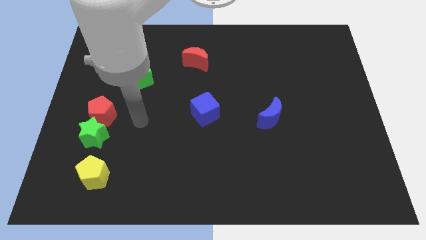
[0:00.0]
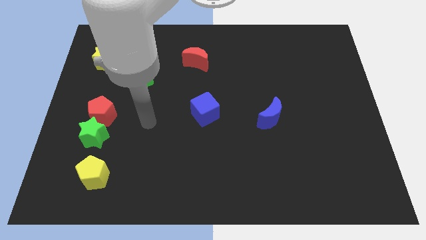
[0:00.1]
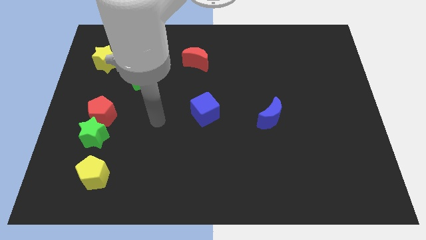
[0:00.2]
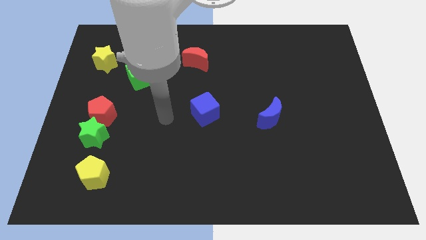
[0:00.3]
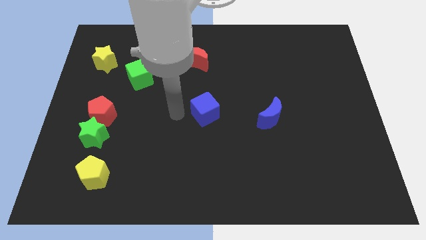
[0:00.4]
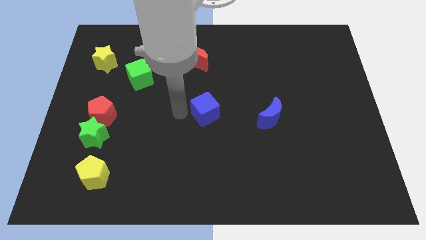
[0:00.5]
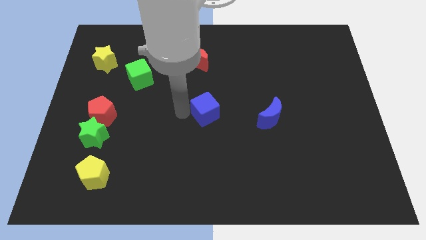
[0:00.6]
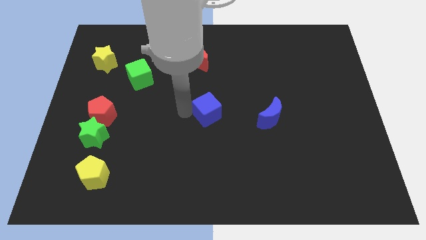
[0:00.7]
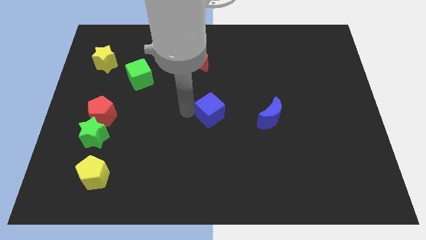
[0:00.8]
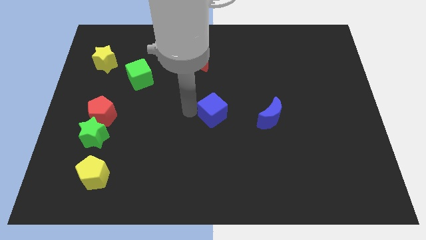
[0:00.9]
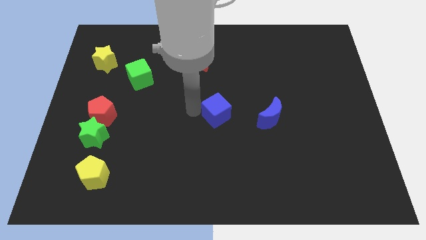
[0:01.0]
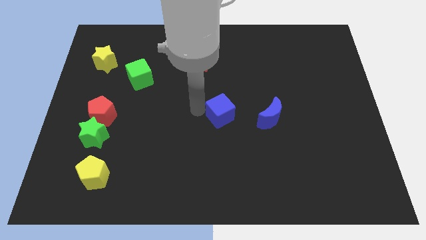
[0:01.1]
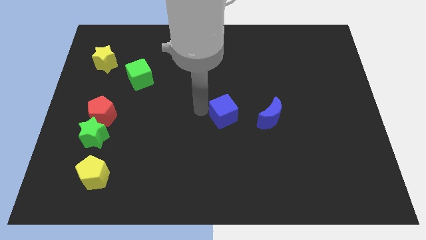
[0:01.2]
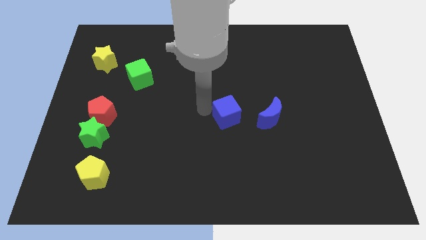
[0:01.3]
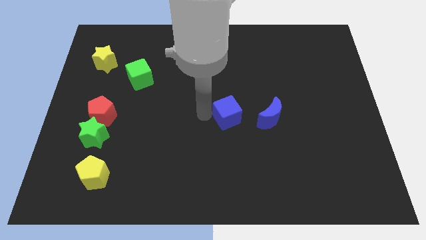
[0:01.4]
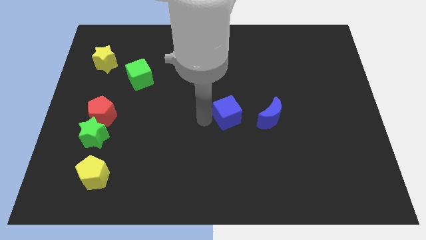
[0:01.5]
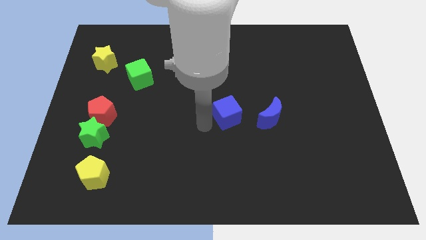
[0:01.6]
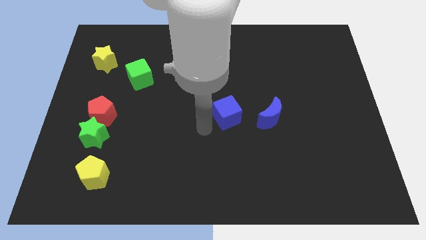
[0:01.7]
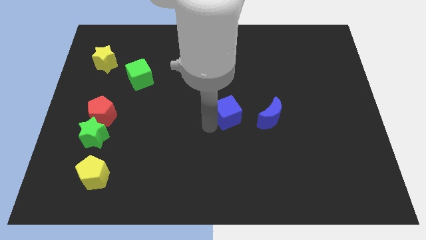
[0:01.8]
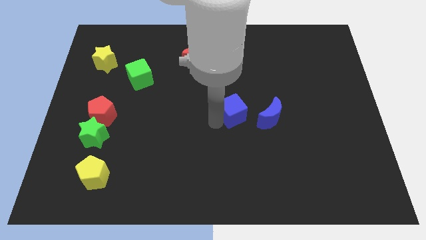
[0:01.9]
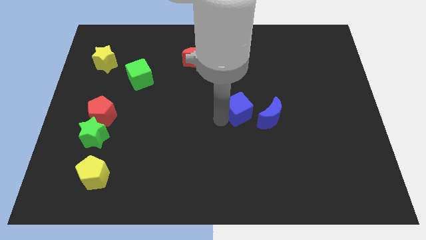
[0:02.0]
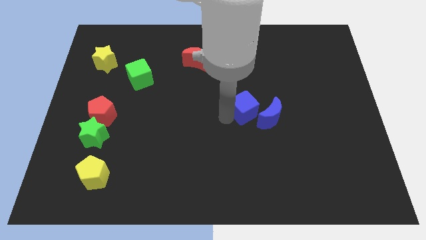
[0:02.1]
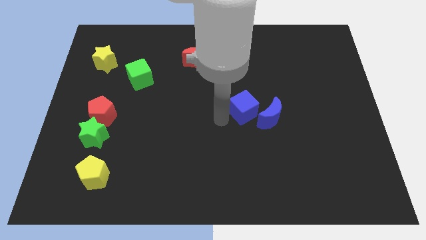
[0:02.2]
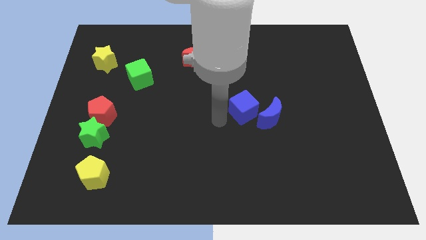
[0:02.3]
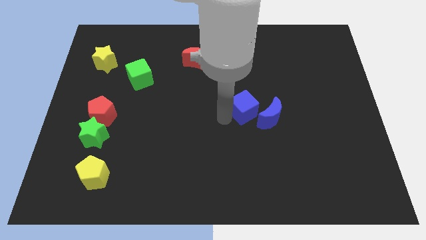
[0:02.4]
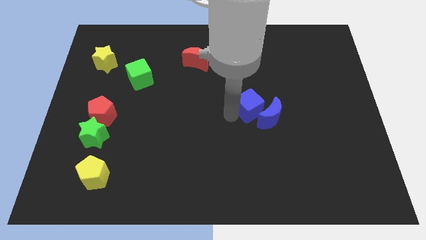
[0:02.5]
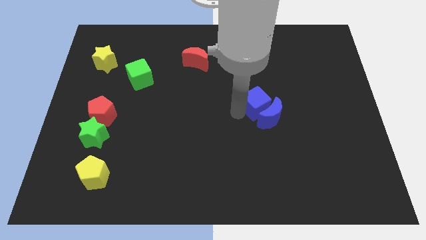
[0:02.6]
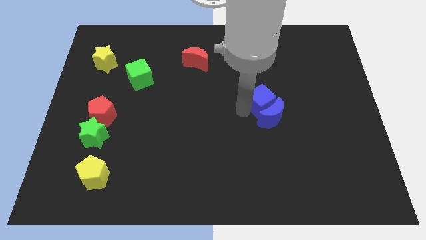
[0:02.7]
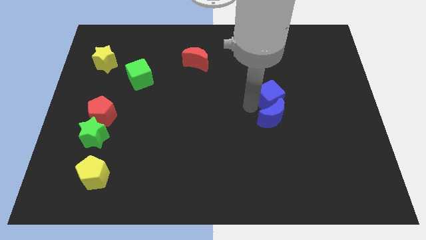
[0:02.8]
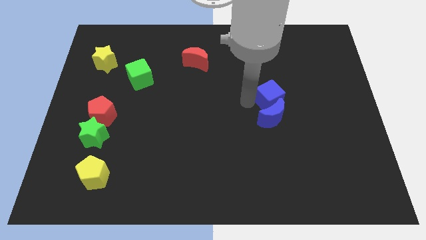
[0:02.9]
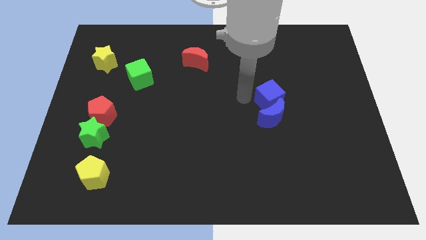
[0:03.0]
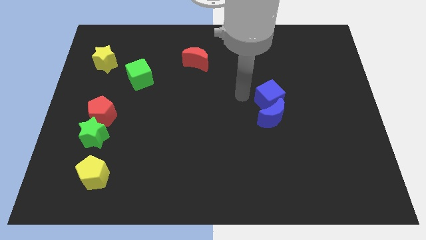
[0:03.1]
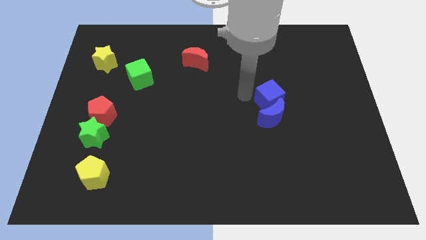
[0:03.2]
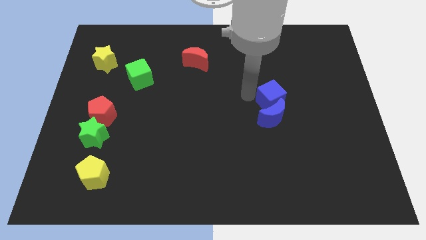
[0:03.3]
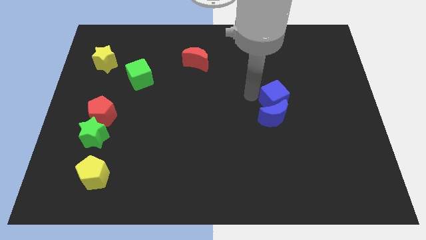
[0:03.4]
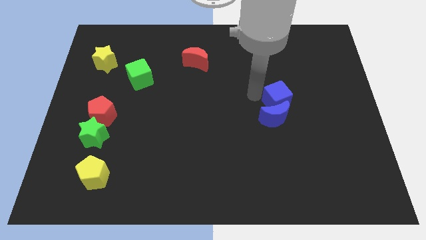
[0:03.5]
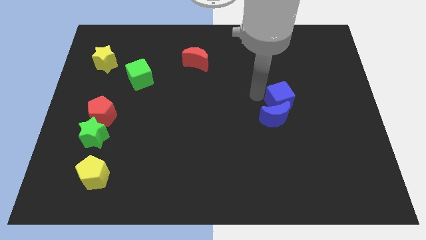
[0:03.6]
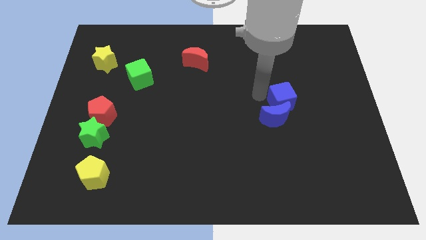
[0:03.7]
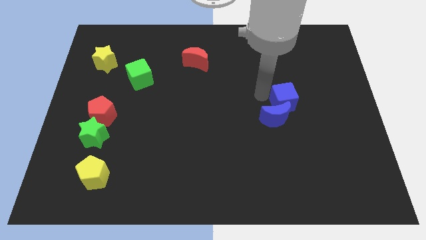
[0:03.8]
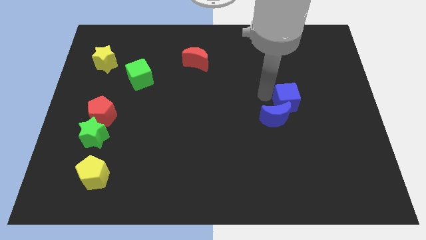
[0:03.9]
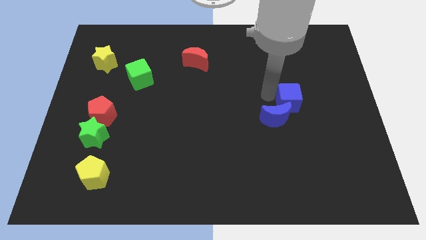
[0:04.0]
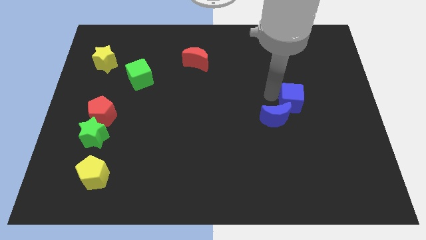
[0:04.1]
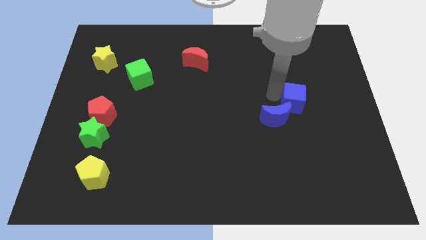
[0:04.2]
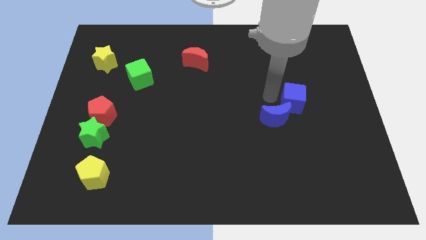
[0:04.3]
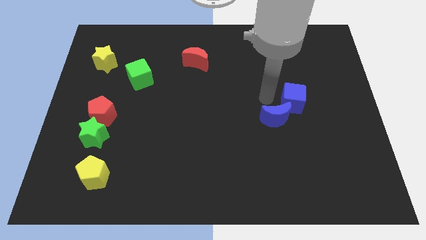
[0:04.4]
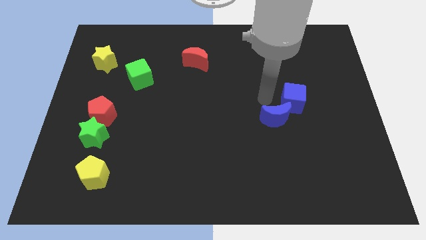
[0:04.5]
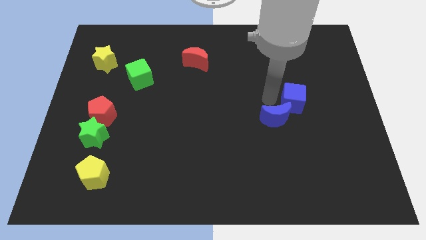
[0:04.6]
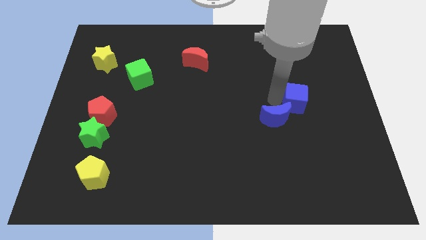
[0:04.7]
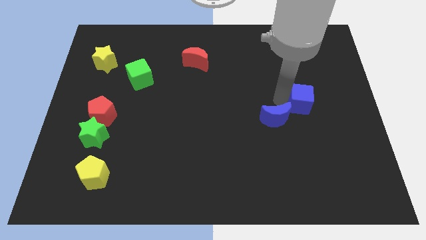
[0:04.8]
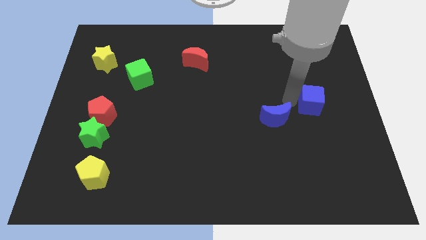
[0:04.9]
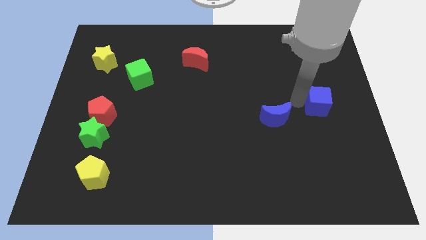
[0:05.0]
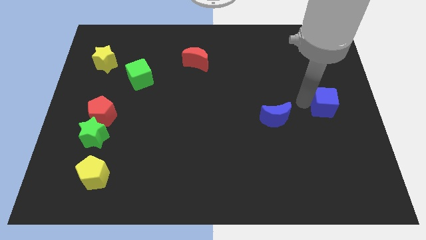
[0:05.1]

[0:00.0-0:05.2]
push the blue cube to the right side

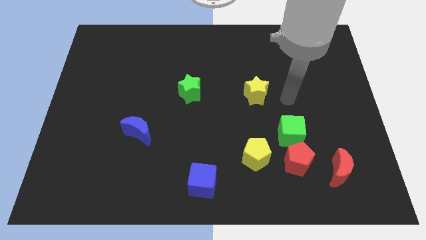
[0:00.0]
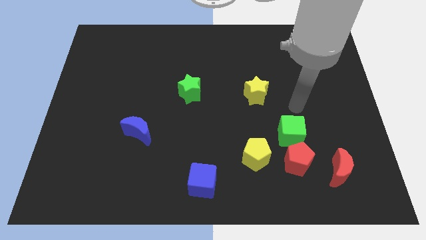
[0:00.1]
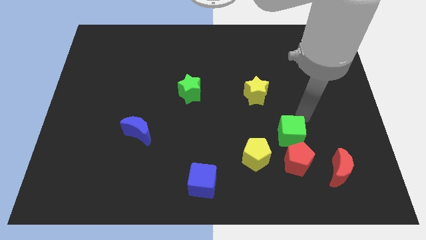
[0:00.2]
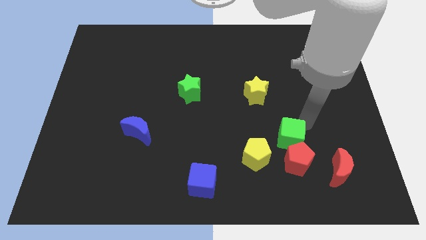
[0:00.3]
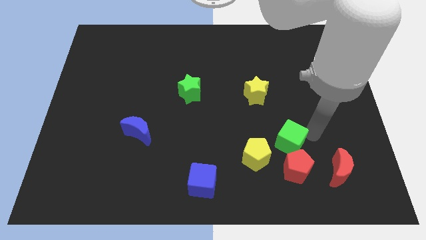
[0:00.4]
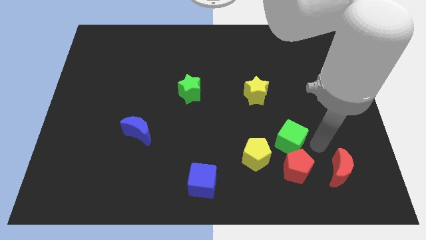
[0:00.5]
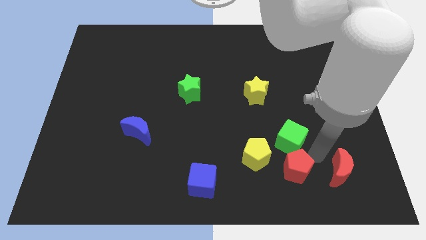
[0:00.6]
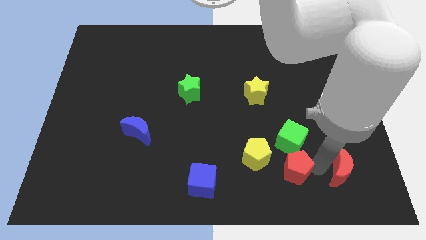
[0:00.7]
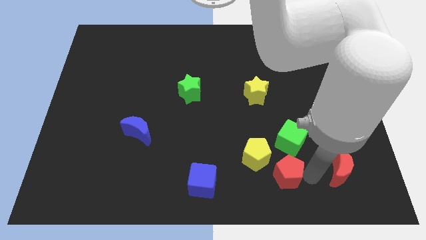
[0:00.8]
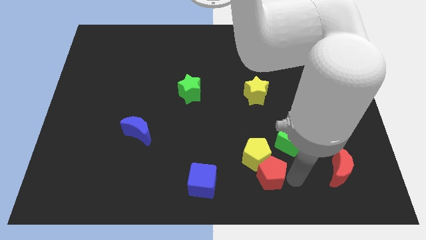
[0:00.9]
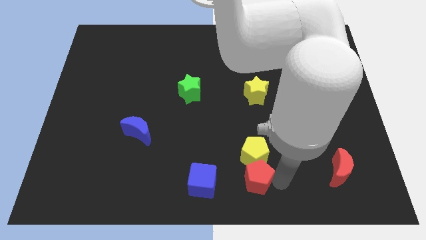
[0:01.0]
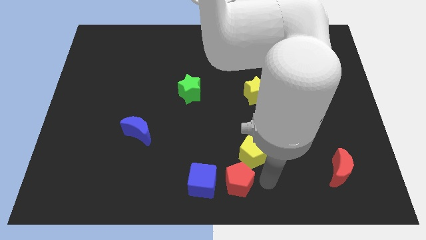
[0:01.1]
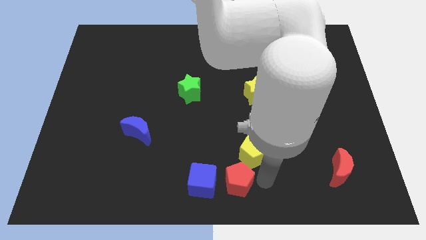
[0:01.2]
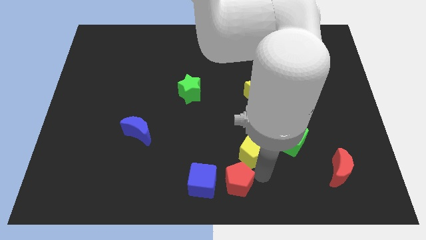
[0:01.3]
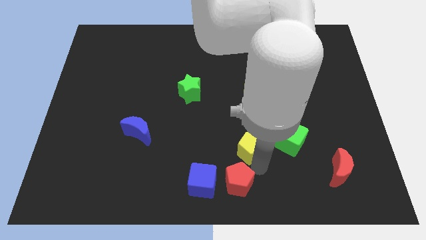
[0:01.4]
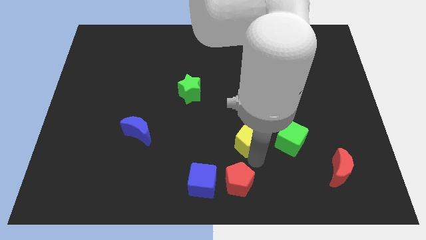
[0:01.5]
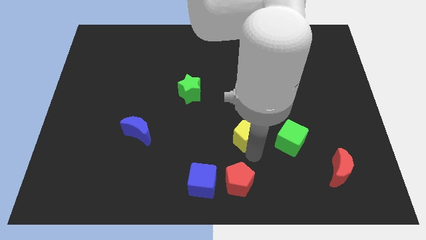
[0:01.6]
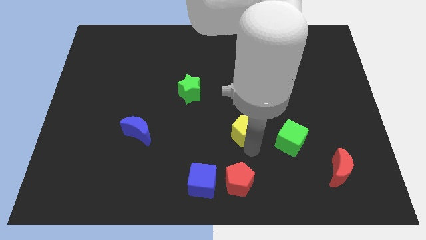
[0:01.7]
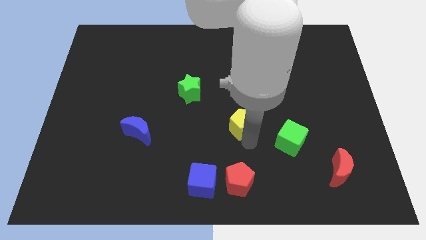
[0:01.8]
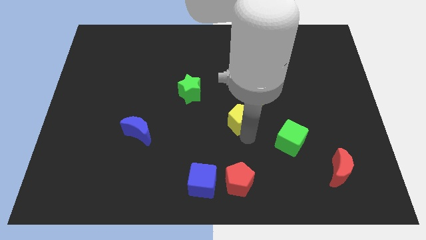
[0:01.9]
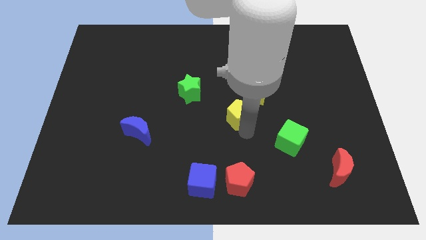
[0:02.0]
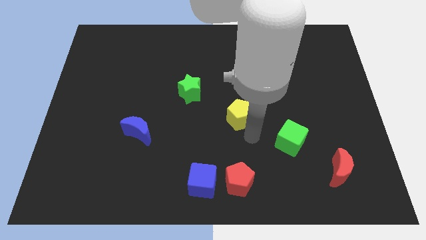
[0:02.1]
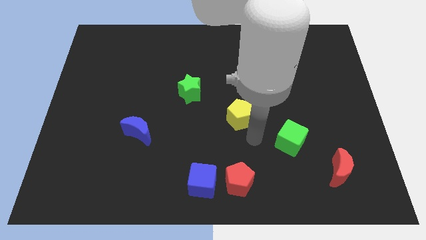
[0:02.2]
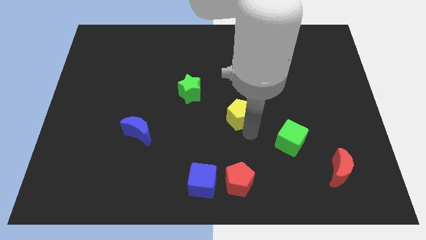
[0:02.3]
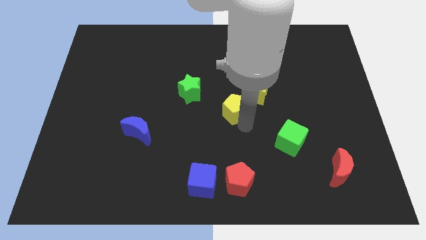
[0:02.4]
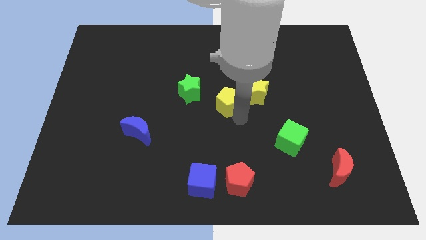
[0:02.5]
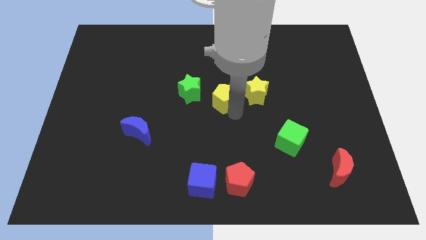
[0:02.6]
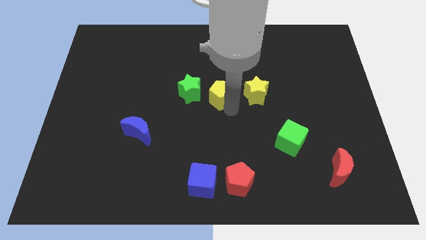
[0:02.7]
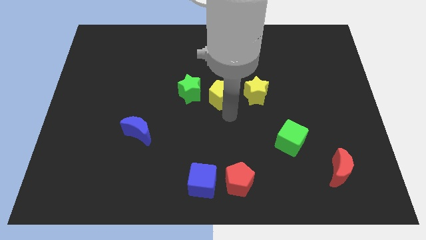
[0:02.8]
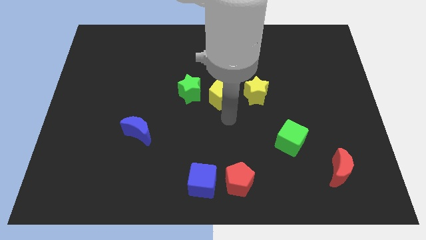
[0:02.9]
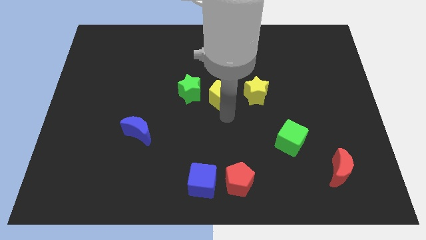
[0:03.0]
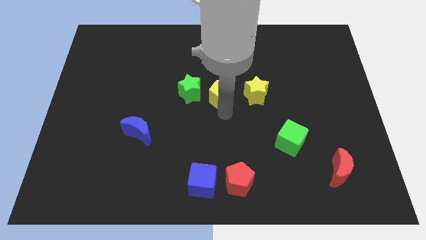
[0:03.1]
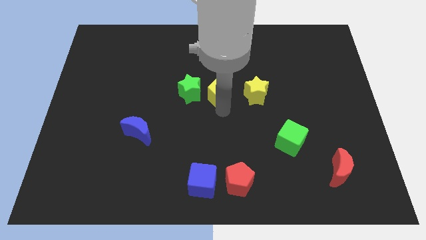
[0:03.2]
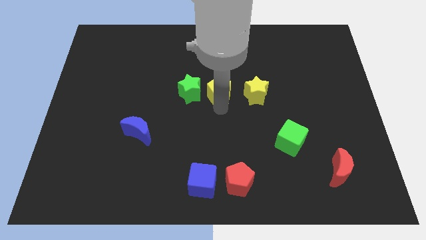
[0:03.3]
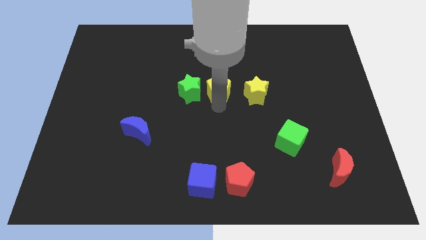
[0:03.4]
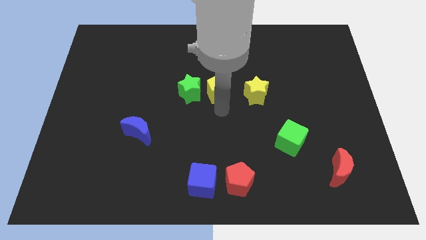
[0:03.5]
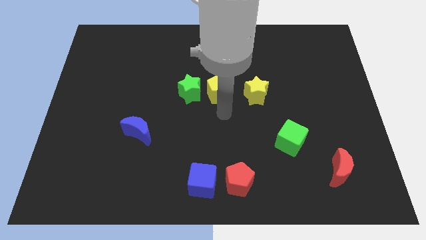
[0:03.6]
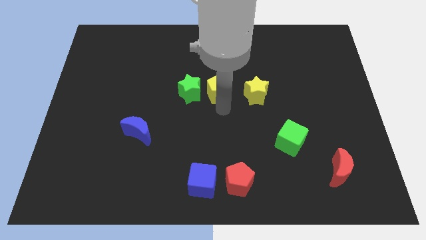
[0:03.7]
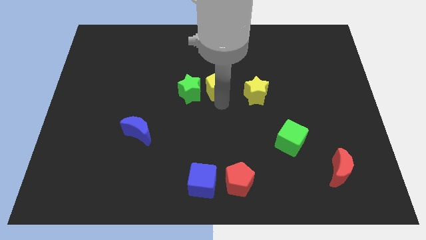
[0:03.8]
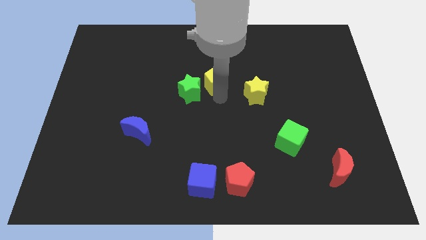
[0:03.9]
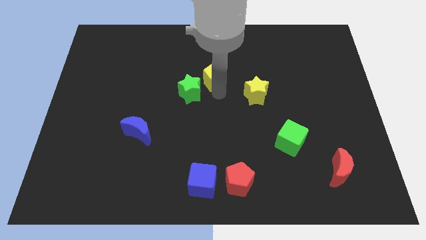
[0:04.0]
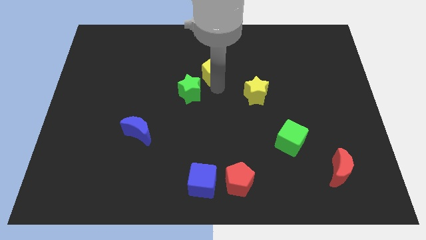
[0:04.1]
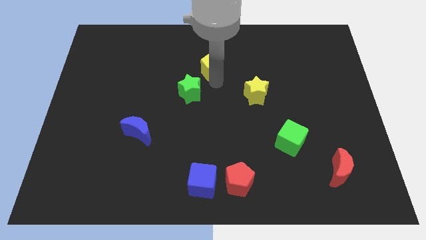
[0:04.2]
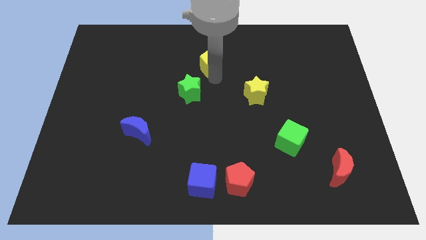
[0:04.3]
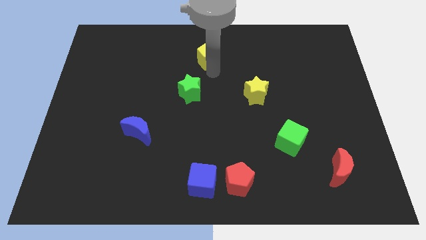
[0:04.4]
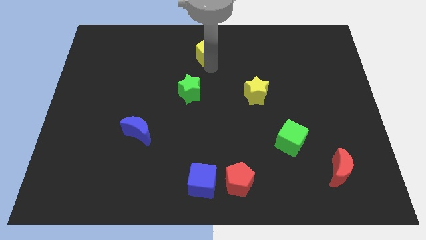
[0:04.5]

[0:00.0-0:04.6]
put the yellow pentagon to the towards your base
